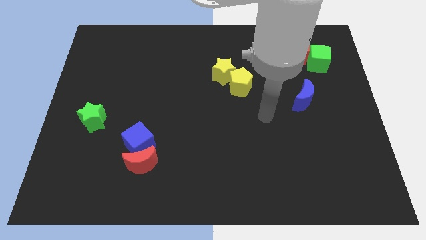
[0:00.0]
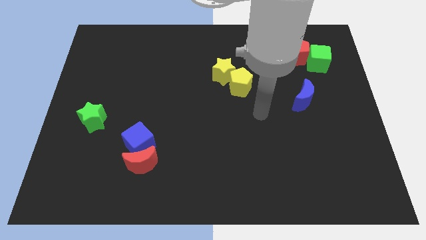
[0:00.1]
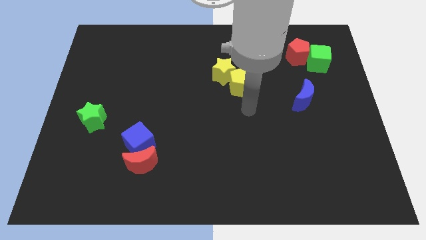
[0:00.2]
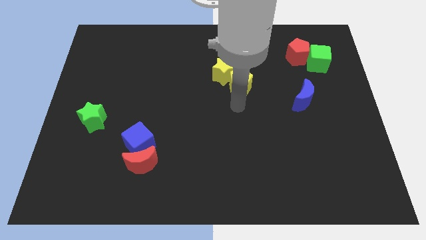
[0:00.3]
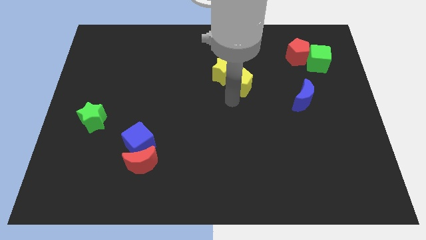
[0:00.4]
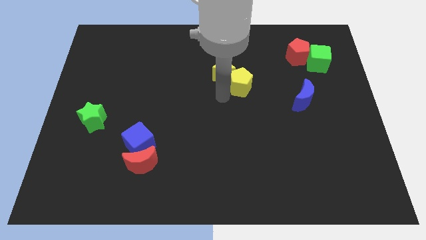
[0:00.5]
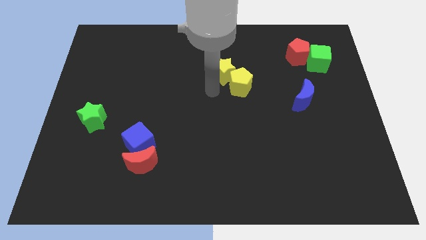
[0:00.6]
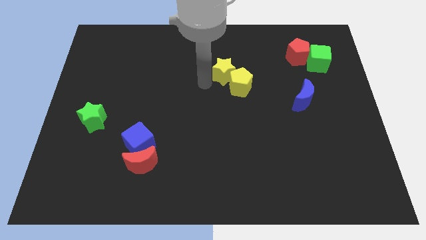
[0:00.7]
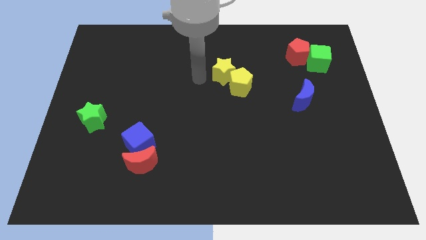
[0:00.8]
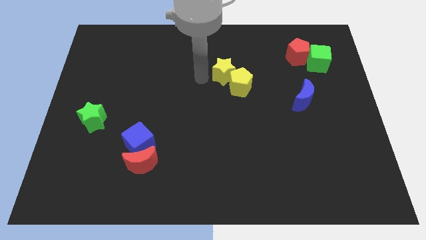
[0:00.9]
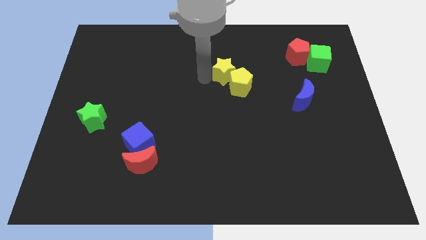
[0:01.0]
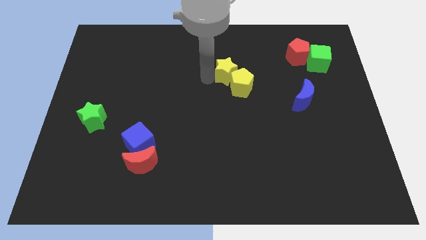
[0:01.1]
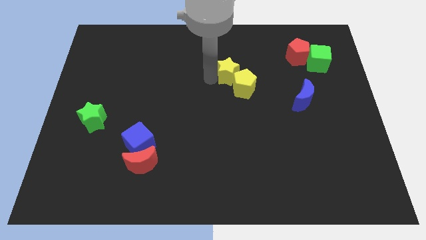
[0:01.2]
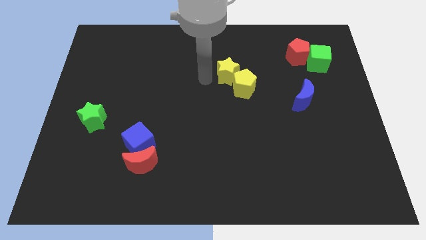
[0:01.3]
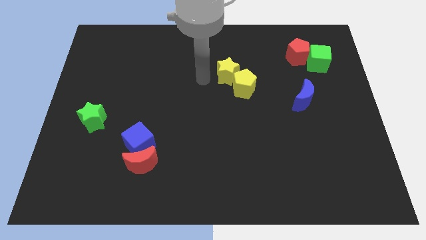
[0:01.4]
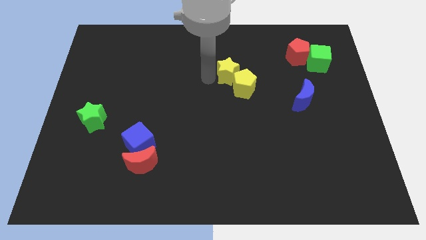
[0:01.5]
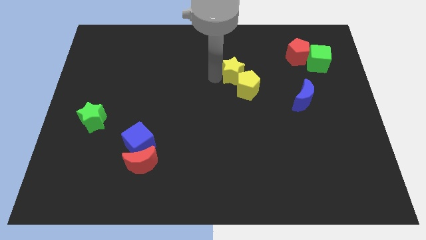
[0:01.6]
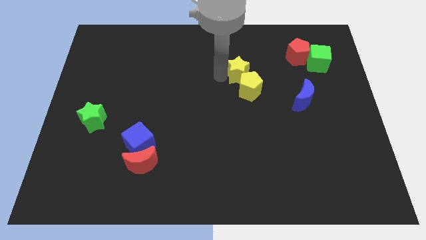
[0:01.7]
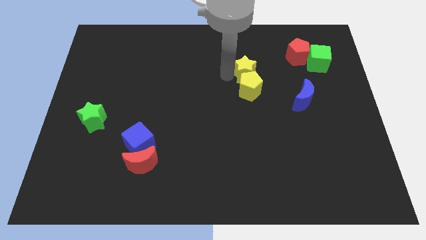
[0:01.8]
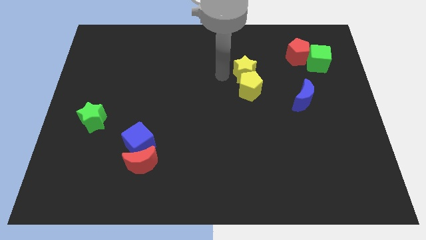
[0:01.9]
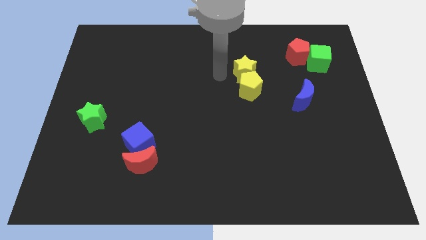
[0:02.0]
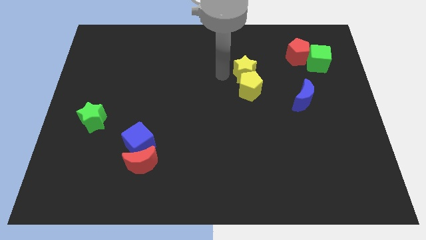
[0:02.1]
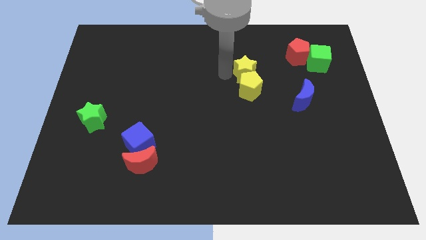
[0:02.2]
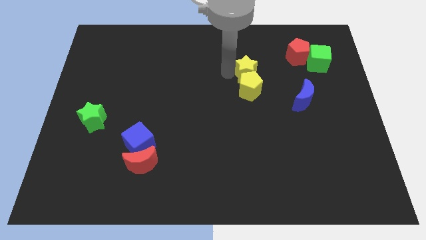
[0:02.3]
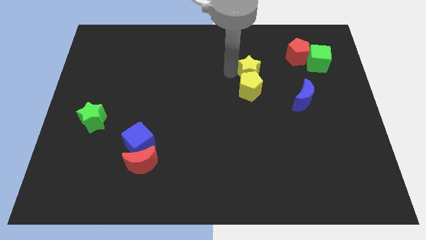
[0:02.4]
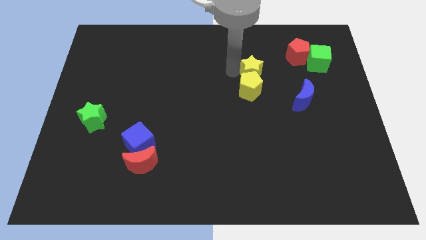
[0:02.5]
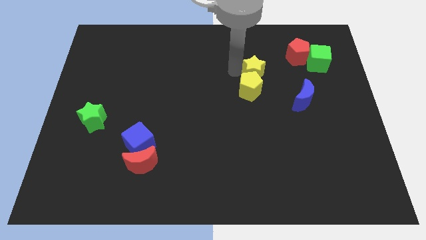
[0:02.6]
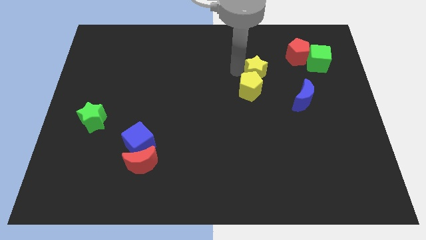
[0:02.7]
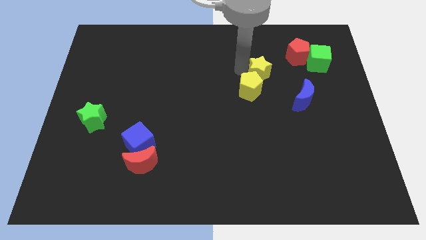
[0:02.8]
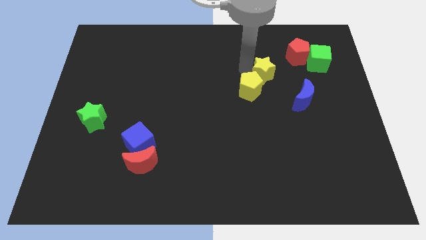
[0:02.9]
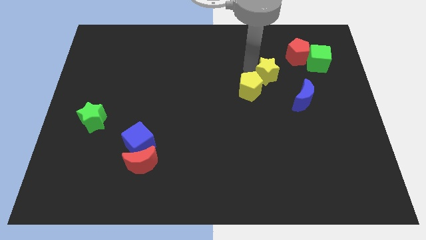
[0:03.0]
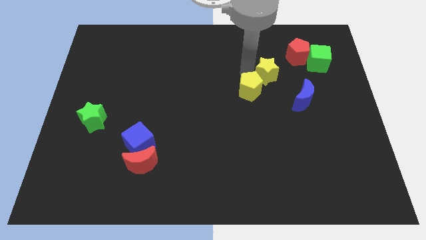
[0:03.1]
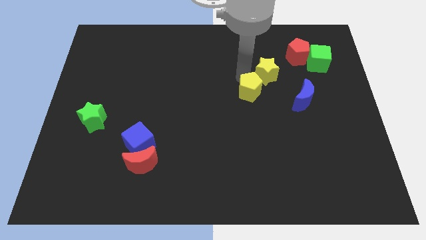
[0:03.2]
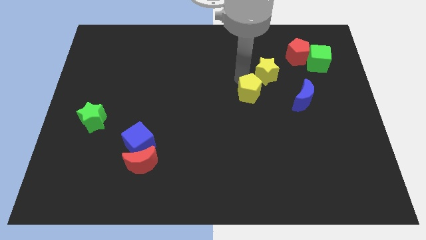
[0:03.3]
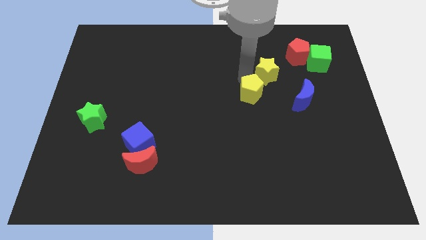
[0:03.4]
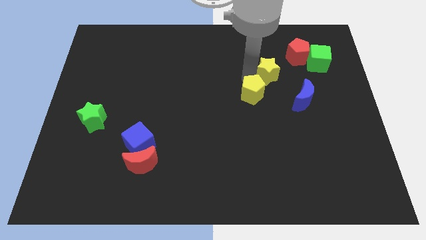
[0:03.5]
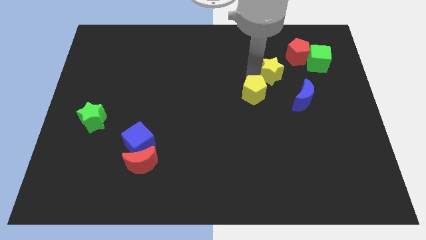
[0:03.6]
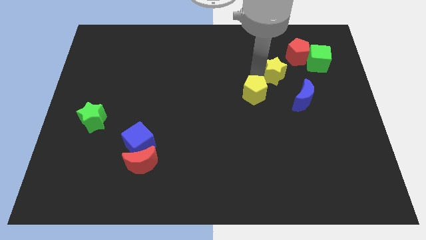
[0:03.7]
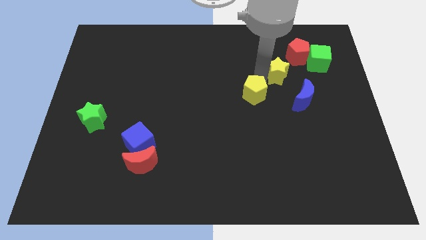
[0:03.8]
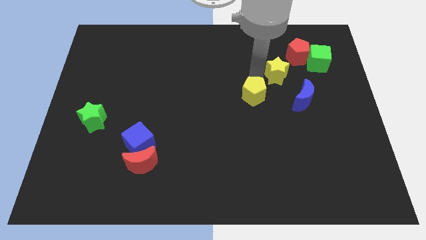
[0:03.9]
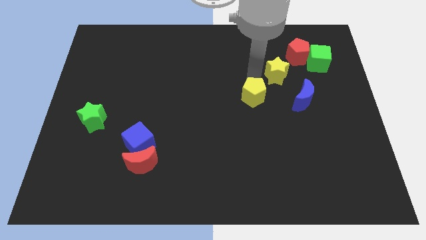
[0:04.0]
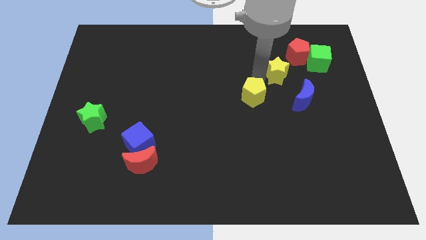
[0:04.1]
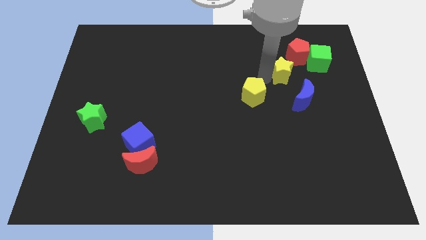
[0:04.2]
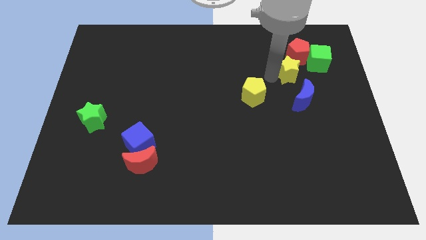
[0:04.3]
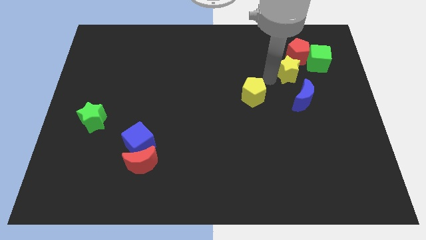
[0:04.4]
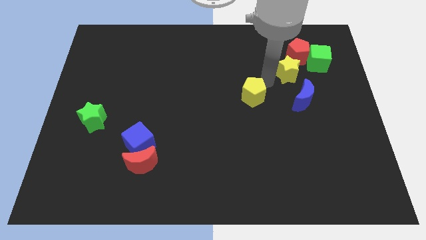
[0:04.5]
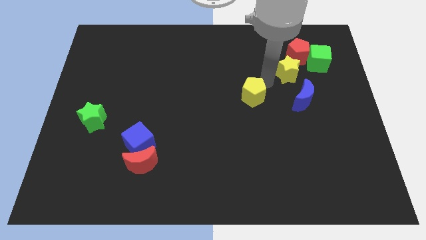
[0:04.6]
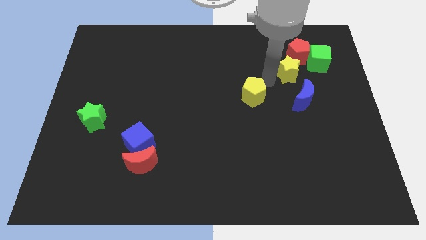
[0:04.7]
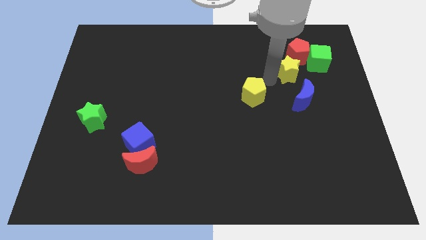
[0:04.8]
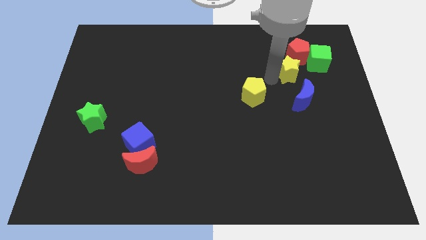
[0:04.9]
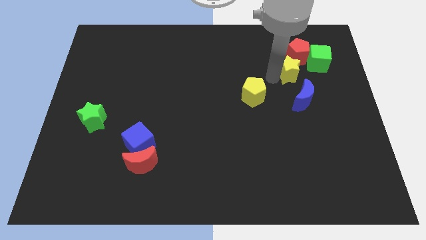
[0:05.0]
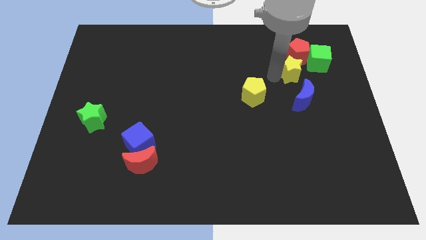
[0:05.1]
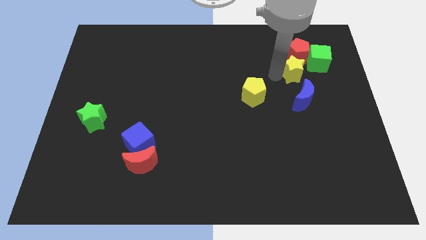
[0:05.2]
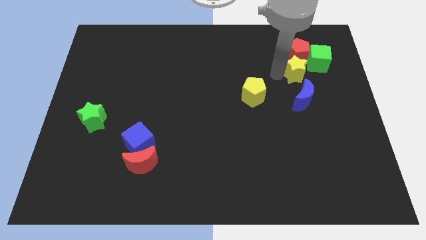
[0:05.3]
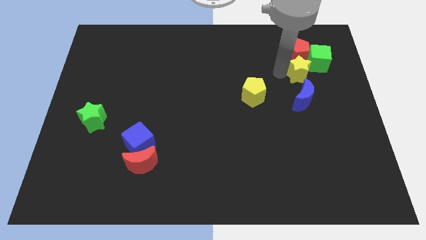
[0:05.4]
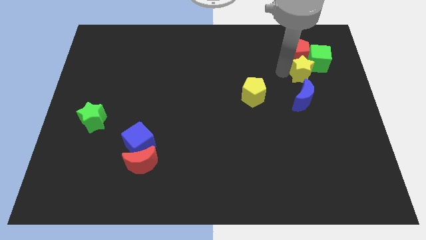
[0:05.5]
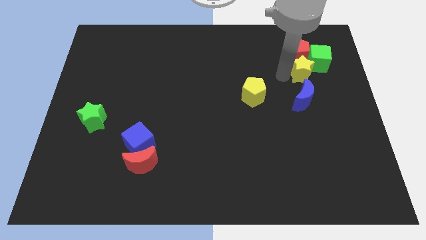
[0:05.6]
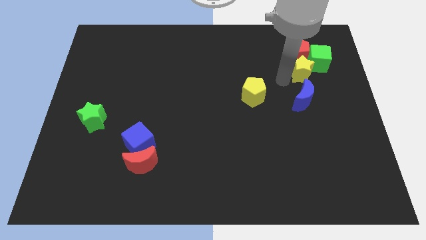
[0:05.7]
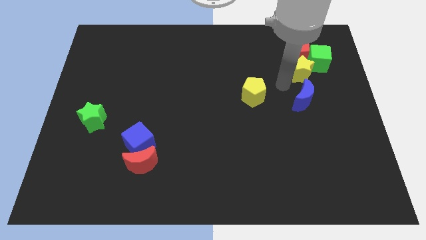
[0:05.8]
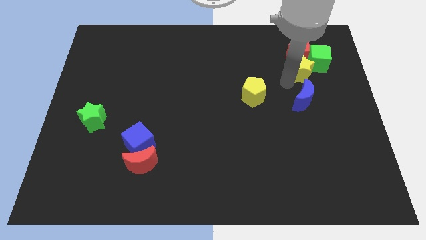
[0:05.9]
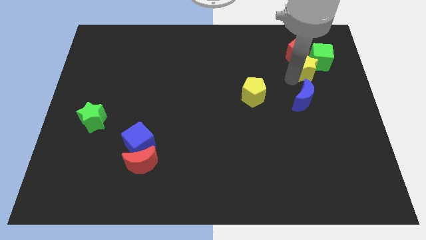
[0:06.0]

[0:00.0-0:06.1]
slide the yellow star towards the green cube

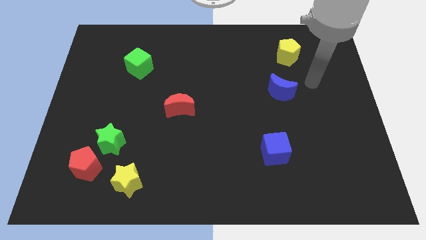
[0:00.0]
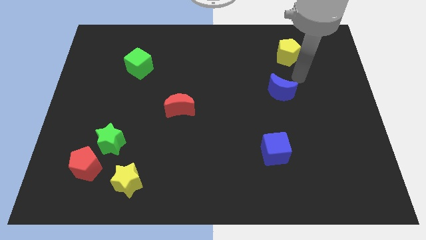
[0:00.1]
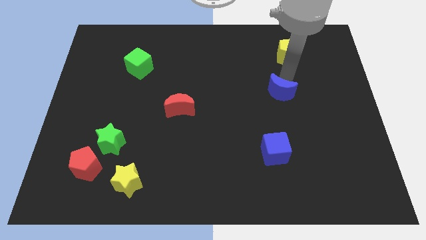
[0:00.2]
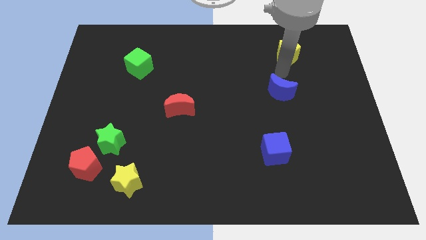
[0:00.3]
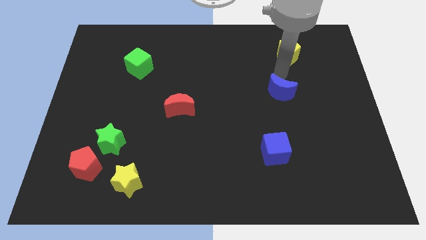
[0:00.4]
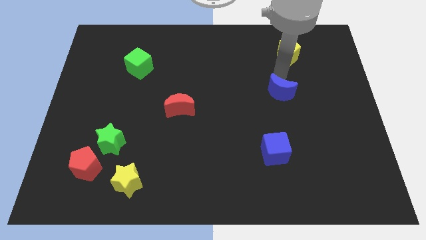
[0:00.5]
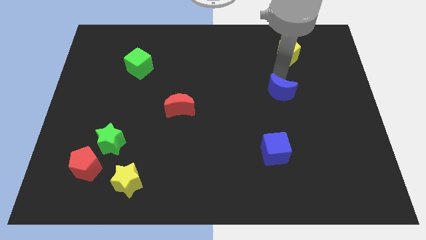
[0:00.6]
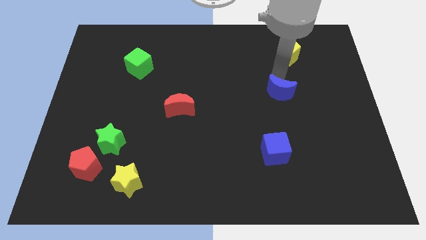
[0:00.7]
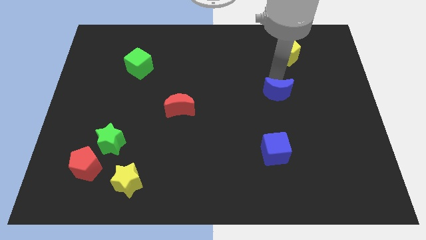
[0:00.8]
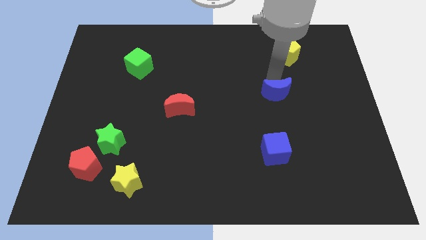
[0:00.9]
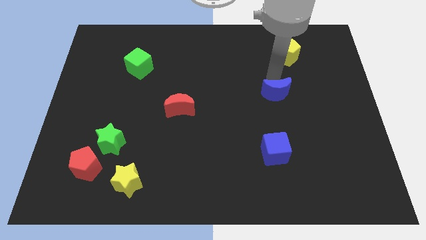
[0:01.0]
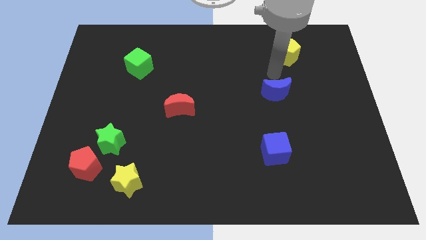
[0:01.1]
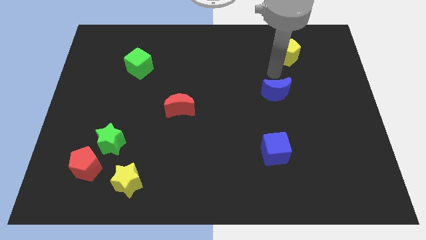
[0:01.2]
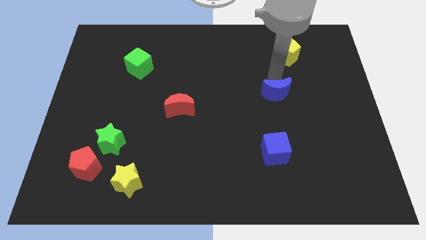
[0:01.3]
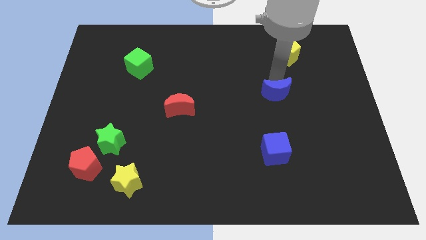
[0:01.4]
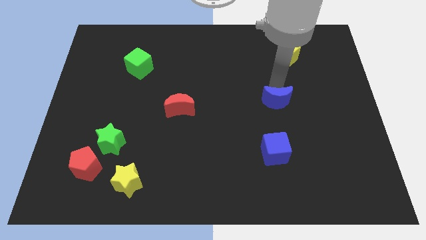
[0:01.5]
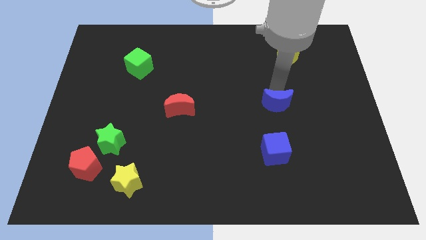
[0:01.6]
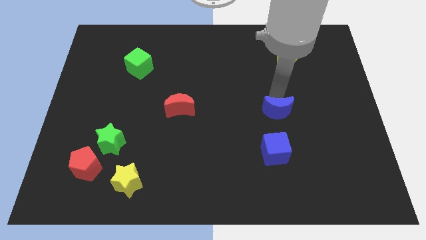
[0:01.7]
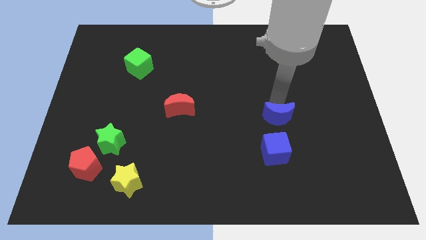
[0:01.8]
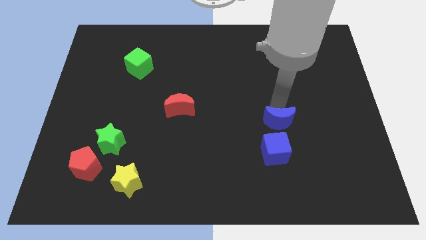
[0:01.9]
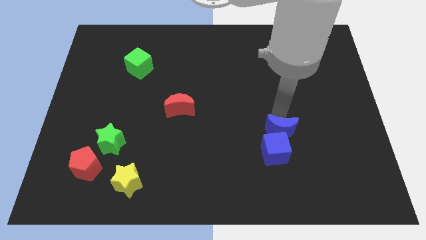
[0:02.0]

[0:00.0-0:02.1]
put the blue moon next to the blue cube
